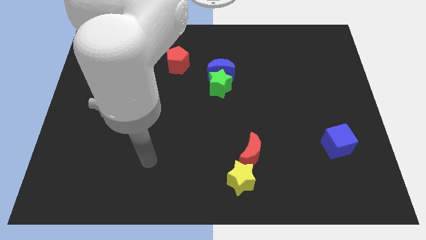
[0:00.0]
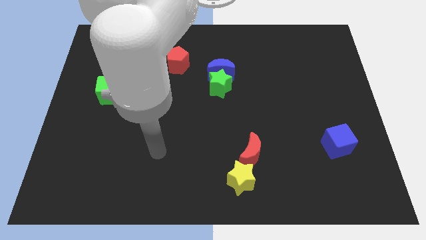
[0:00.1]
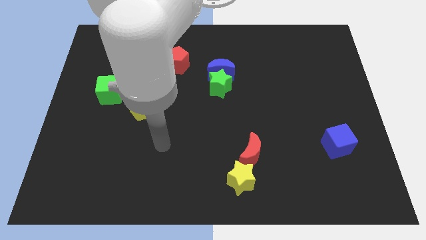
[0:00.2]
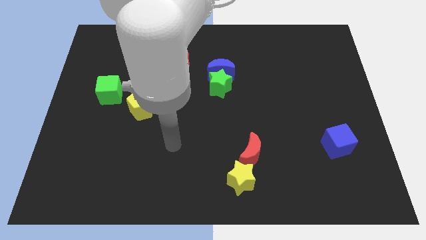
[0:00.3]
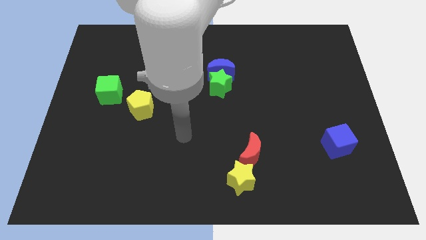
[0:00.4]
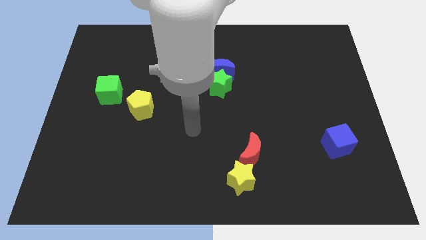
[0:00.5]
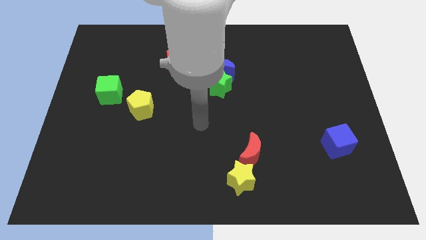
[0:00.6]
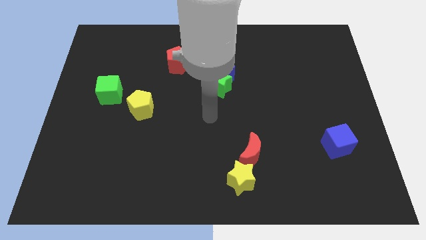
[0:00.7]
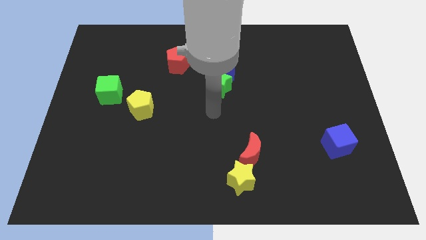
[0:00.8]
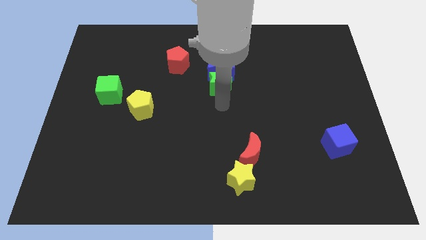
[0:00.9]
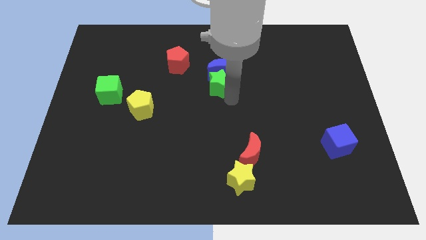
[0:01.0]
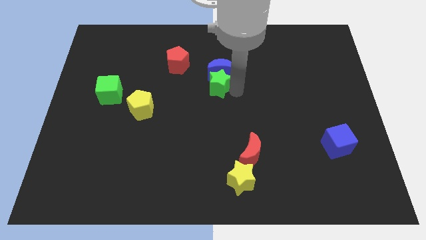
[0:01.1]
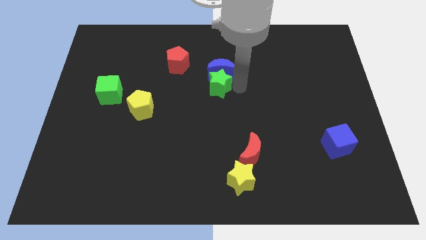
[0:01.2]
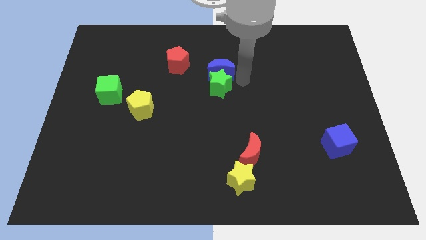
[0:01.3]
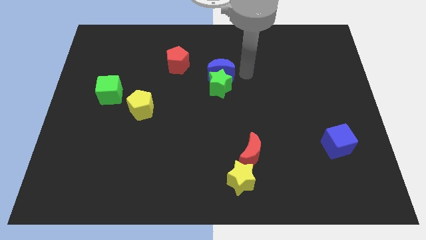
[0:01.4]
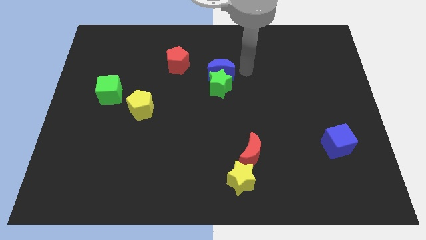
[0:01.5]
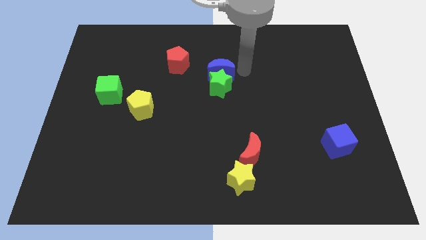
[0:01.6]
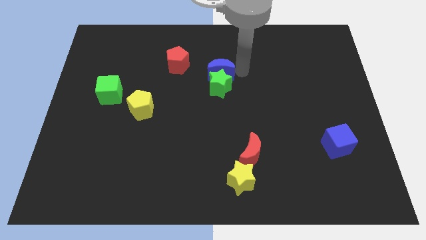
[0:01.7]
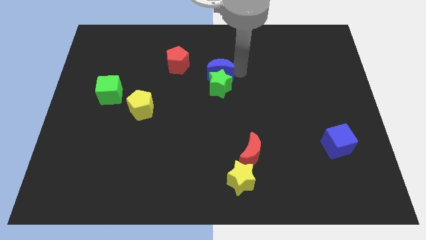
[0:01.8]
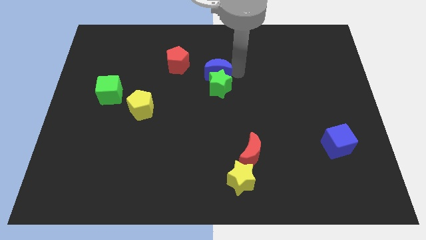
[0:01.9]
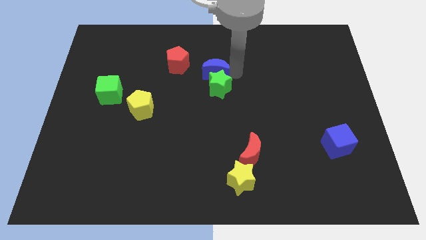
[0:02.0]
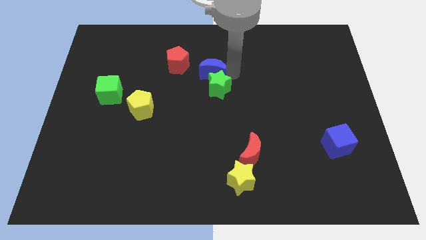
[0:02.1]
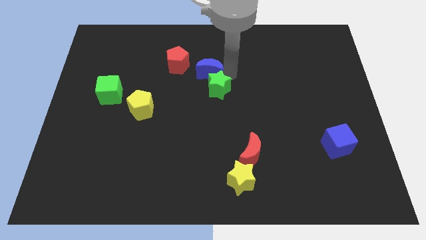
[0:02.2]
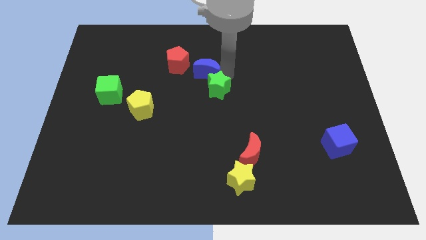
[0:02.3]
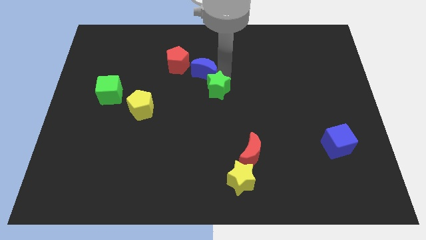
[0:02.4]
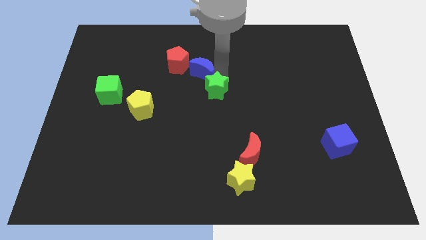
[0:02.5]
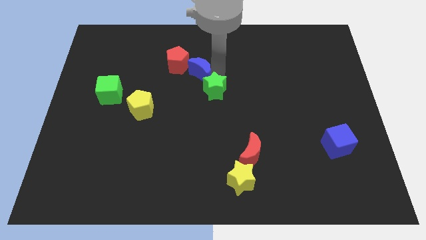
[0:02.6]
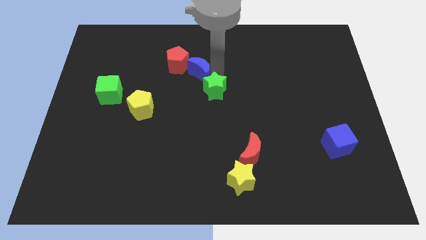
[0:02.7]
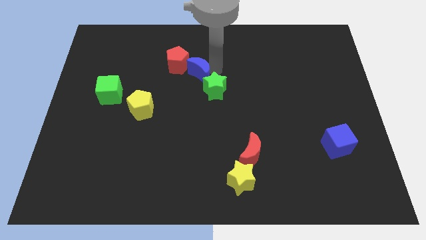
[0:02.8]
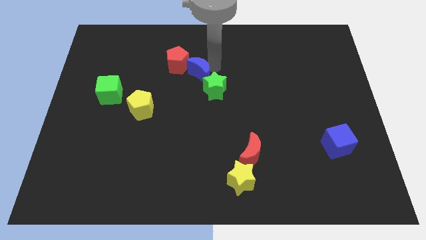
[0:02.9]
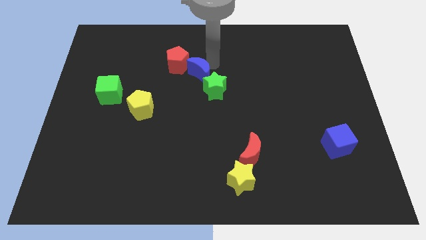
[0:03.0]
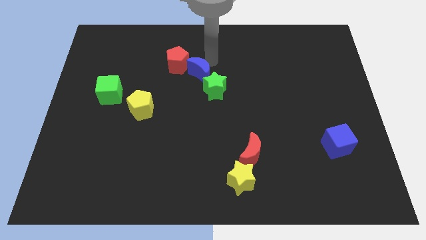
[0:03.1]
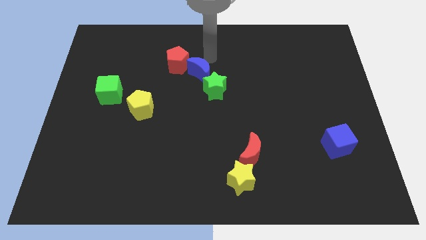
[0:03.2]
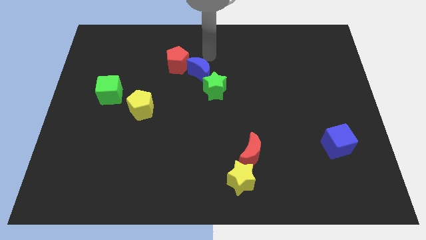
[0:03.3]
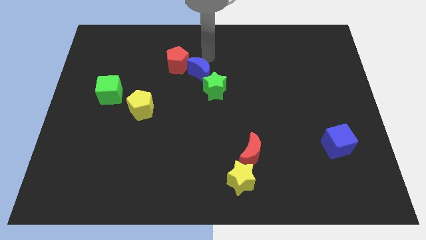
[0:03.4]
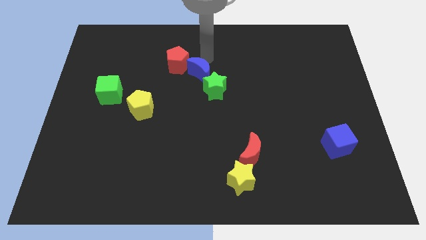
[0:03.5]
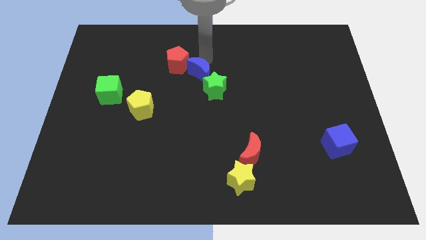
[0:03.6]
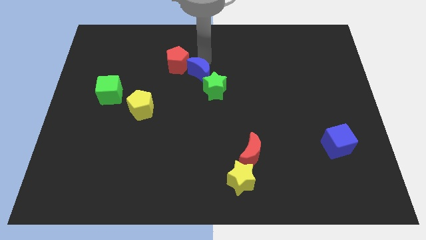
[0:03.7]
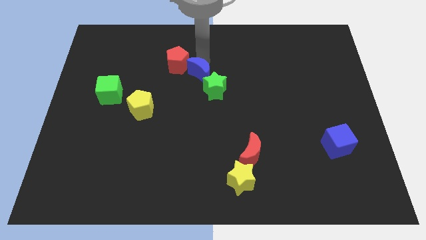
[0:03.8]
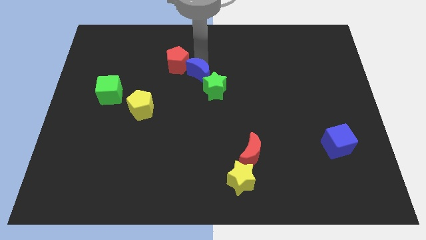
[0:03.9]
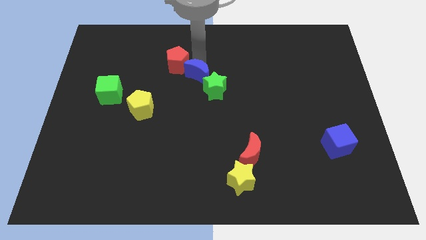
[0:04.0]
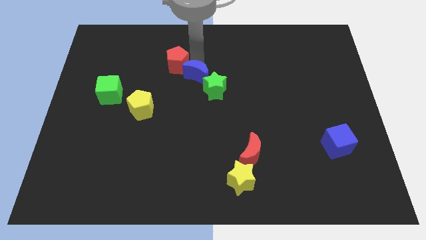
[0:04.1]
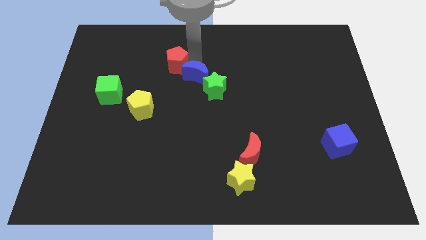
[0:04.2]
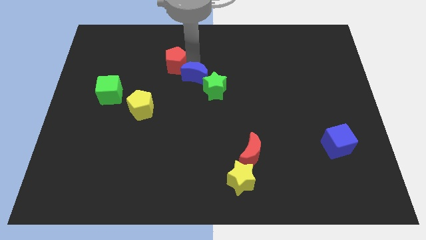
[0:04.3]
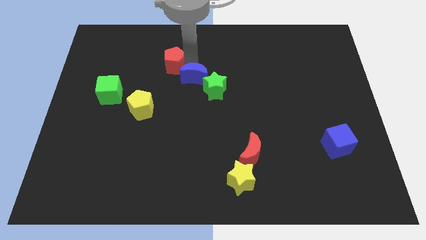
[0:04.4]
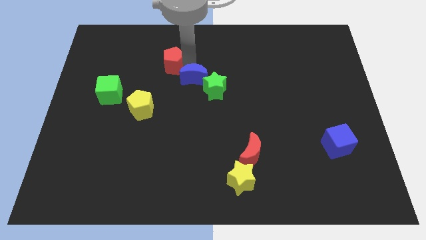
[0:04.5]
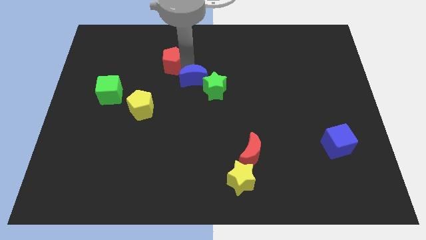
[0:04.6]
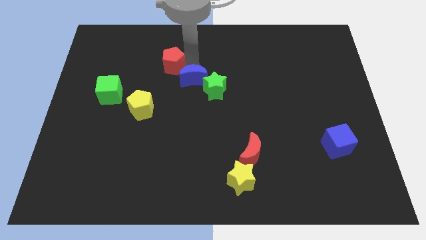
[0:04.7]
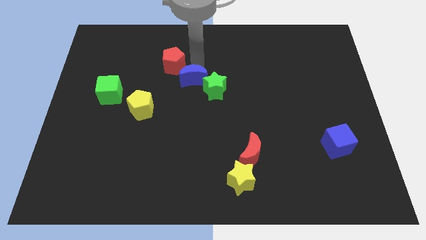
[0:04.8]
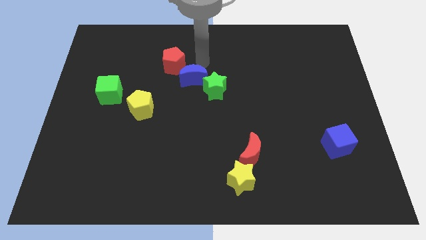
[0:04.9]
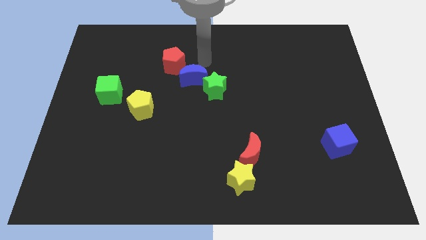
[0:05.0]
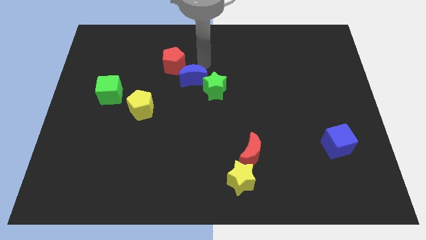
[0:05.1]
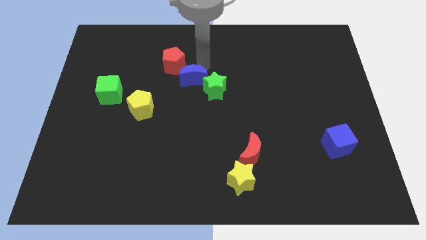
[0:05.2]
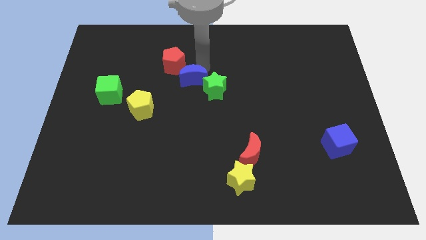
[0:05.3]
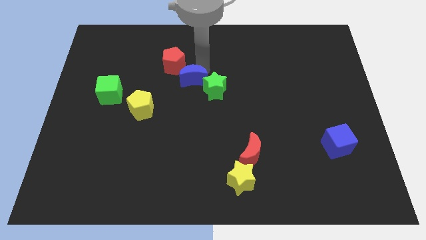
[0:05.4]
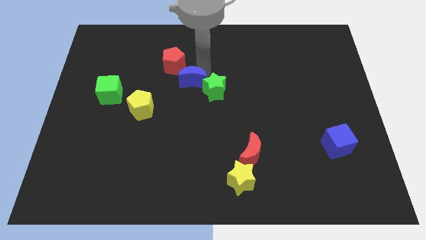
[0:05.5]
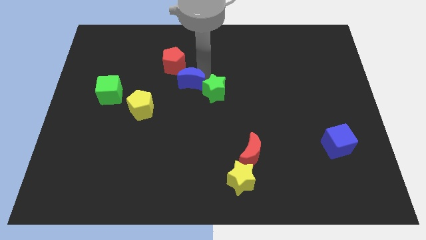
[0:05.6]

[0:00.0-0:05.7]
slightly move the blue moon down and then left

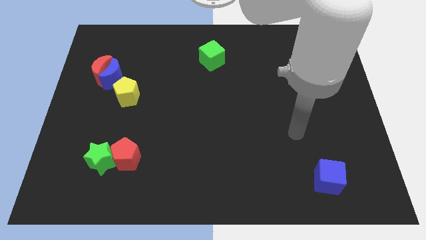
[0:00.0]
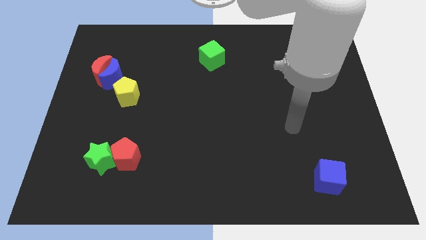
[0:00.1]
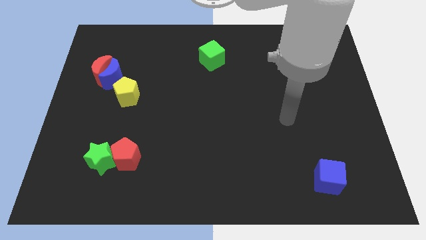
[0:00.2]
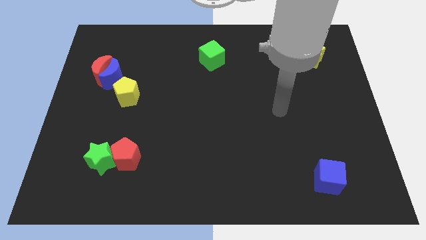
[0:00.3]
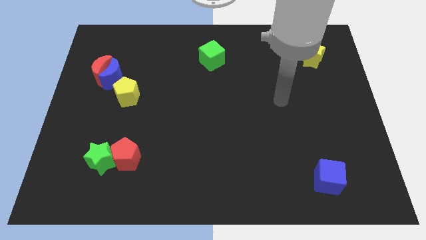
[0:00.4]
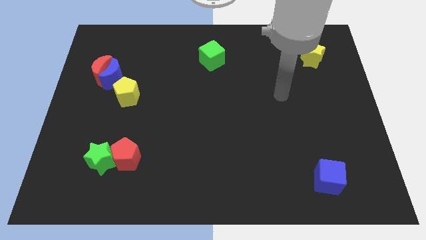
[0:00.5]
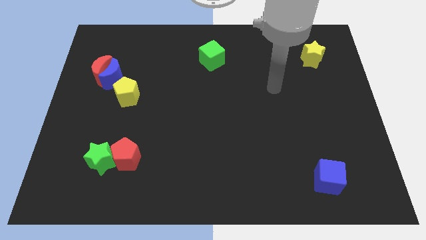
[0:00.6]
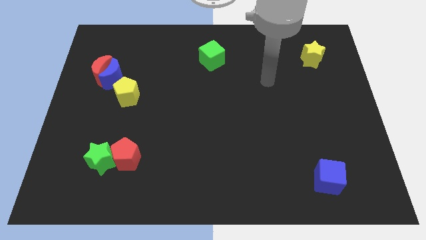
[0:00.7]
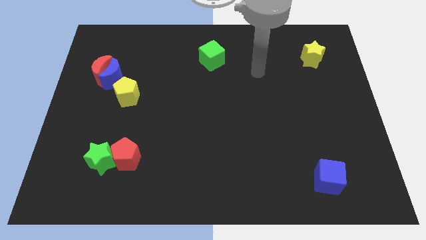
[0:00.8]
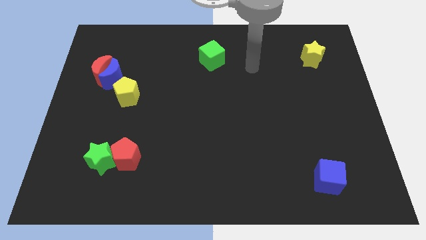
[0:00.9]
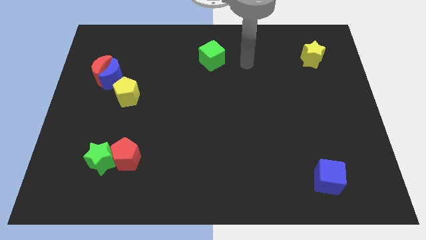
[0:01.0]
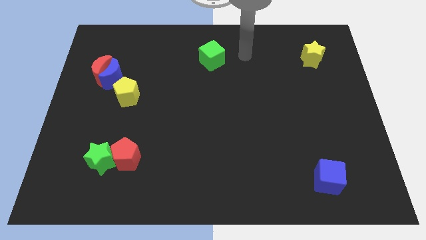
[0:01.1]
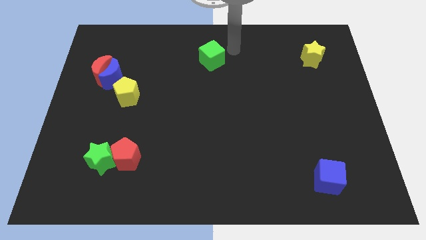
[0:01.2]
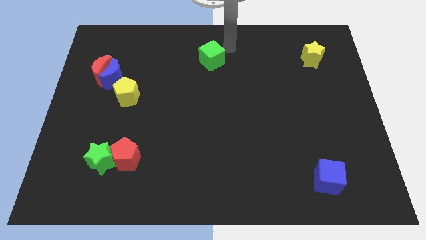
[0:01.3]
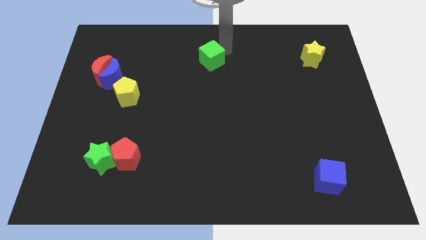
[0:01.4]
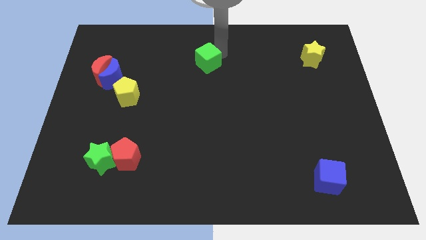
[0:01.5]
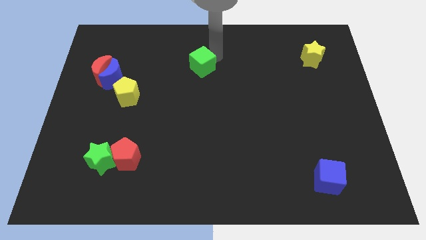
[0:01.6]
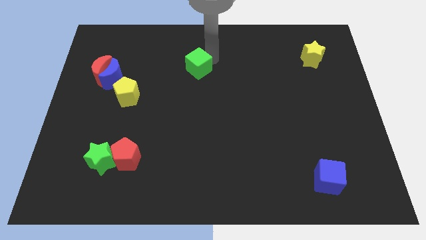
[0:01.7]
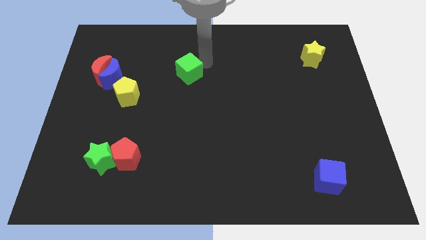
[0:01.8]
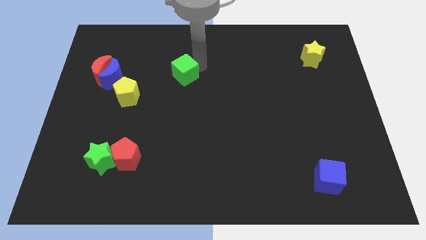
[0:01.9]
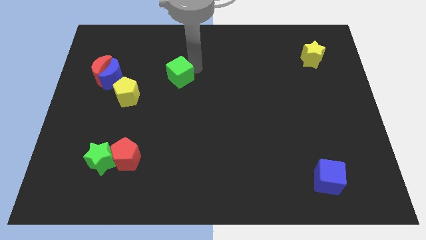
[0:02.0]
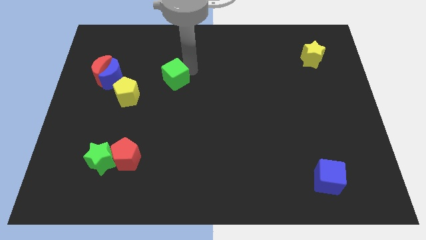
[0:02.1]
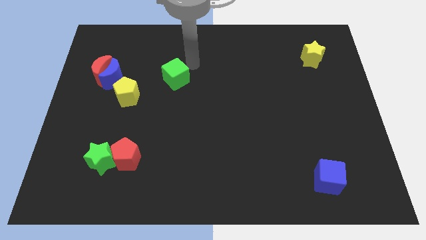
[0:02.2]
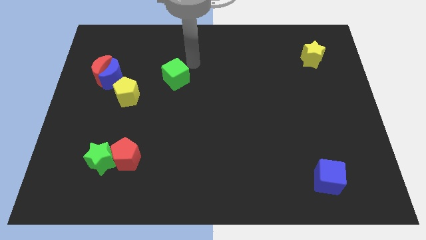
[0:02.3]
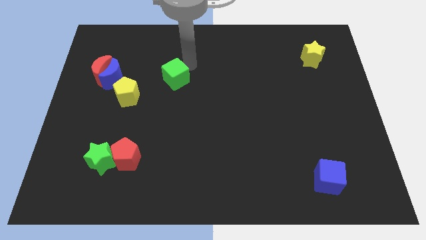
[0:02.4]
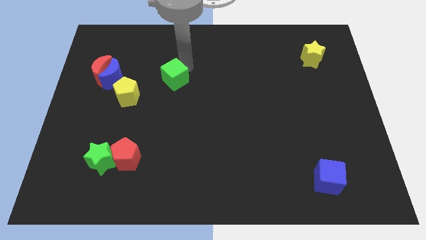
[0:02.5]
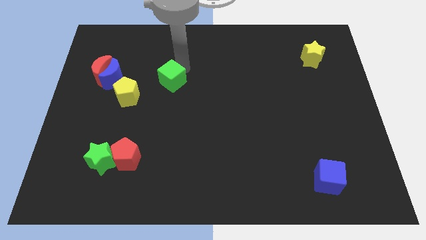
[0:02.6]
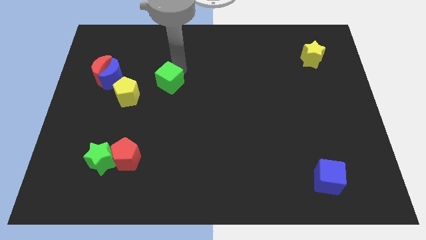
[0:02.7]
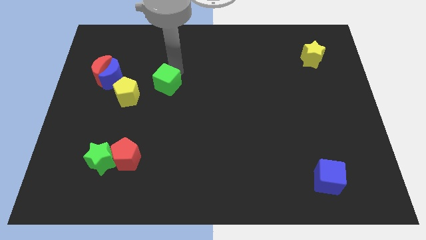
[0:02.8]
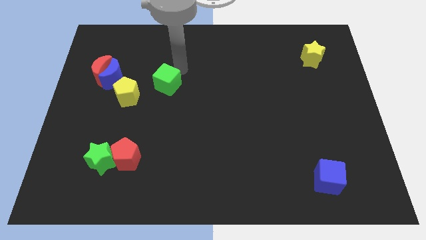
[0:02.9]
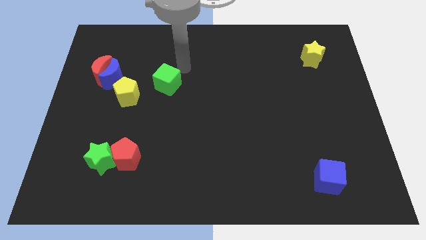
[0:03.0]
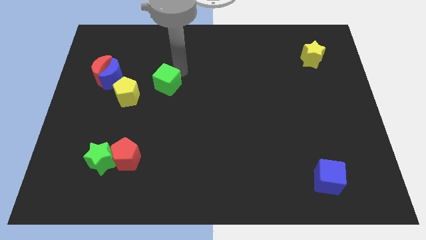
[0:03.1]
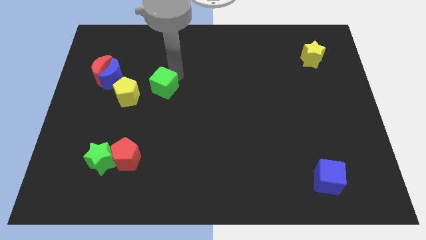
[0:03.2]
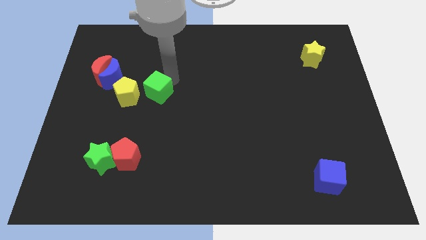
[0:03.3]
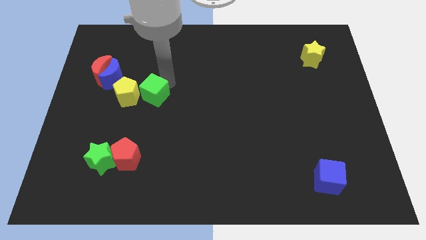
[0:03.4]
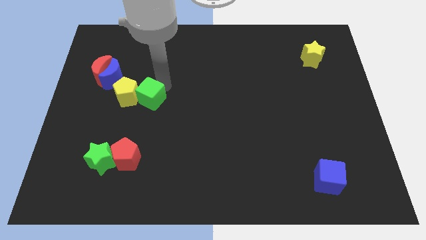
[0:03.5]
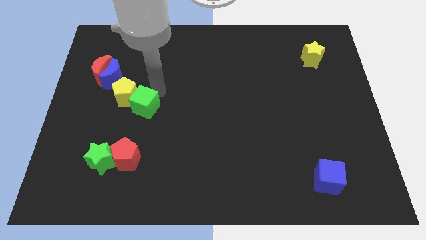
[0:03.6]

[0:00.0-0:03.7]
push the green cube down and left diagonally
